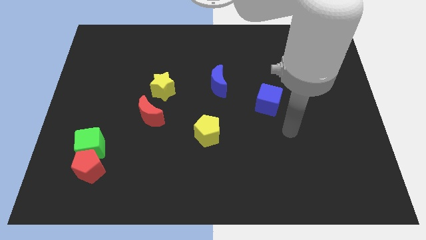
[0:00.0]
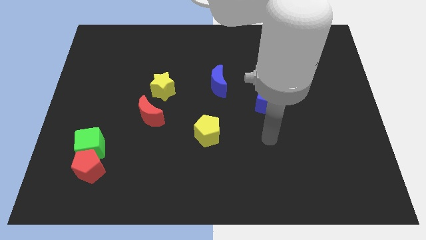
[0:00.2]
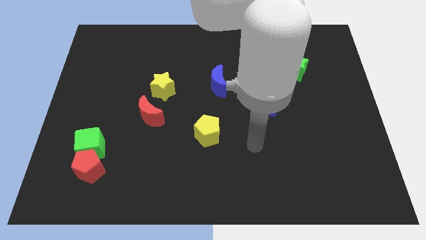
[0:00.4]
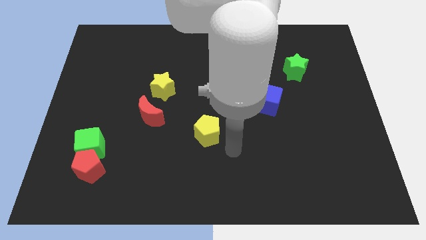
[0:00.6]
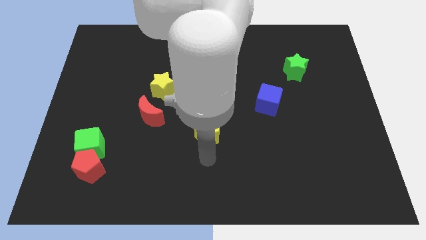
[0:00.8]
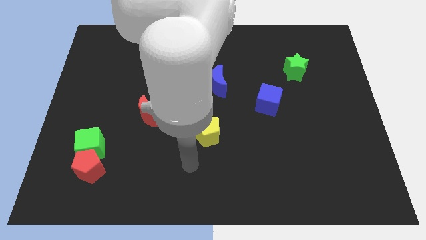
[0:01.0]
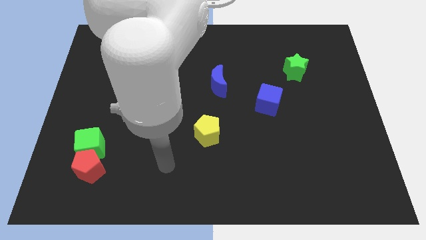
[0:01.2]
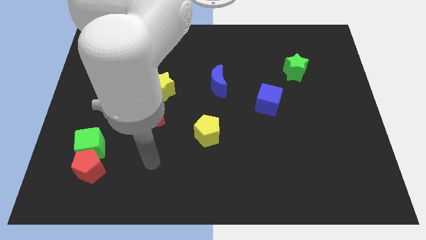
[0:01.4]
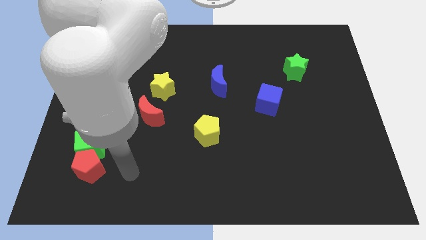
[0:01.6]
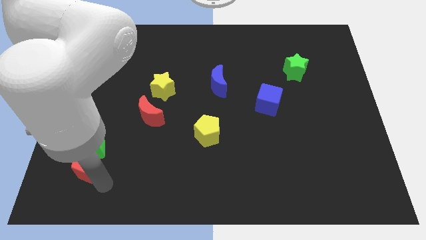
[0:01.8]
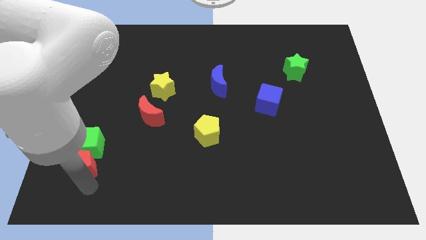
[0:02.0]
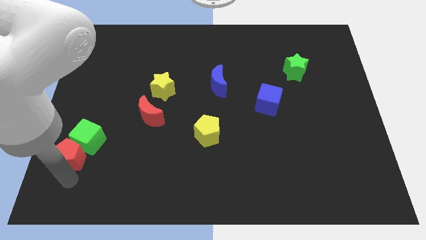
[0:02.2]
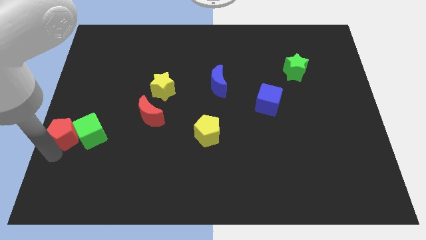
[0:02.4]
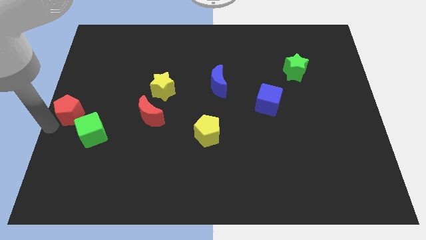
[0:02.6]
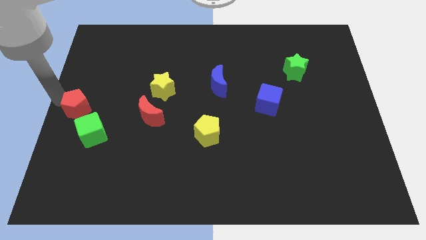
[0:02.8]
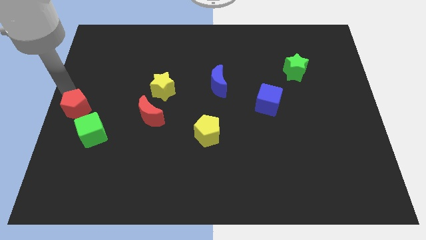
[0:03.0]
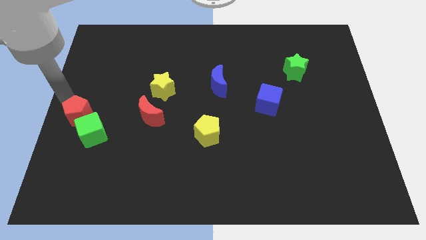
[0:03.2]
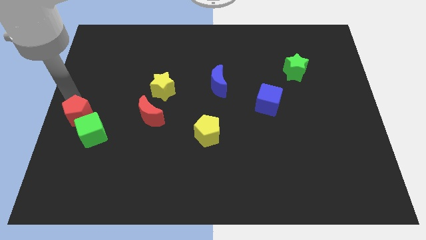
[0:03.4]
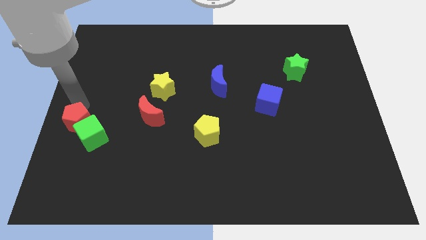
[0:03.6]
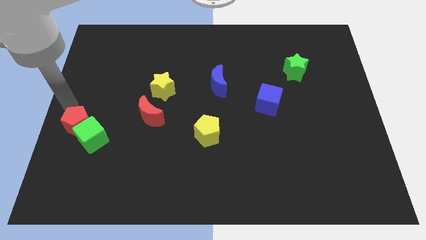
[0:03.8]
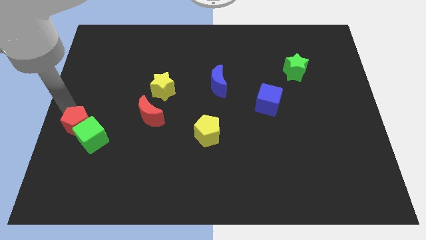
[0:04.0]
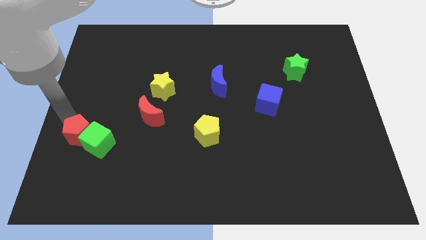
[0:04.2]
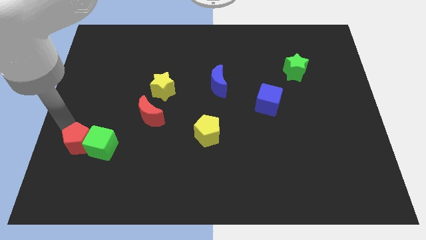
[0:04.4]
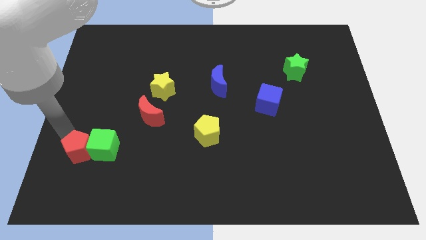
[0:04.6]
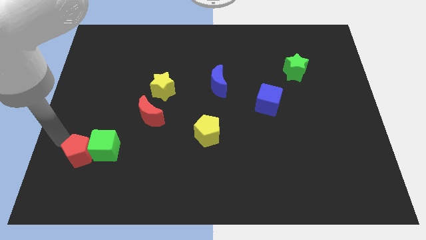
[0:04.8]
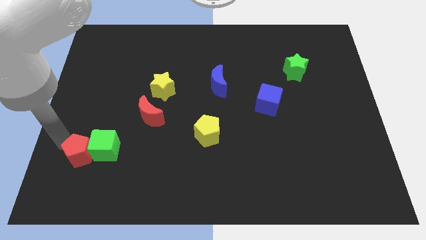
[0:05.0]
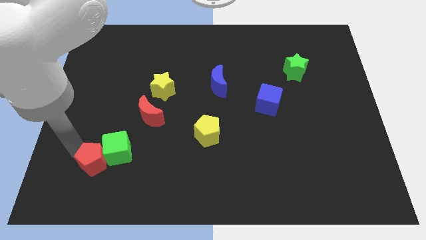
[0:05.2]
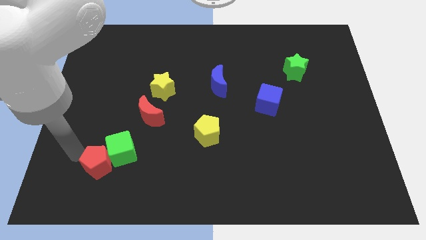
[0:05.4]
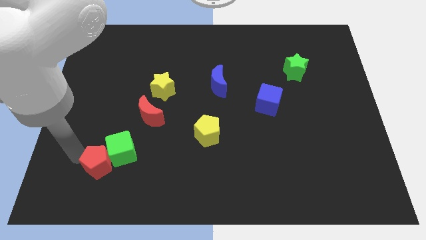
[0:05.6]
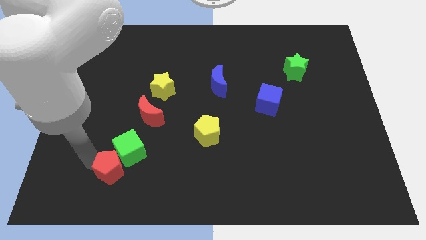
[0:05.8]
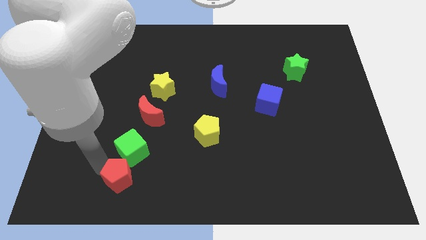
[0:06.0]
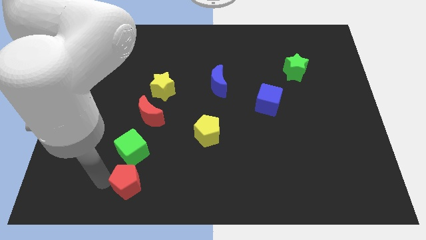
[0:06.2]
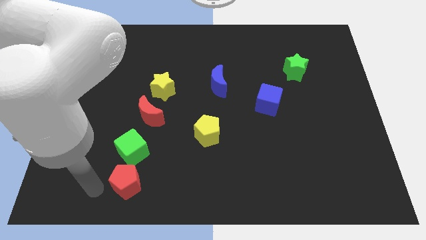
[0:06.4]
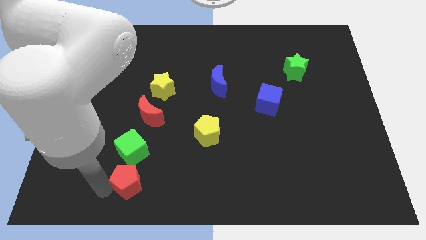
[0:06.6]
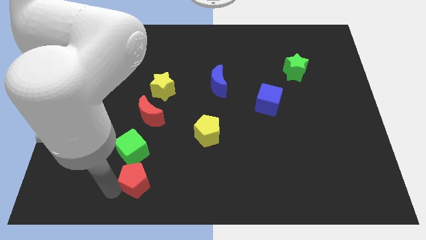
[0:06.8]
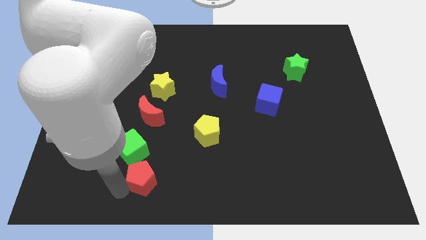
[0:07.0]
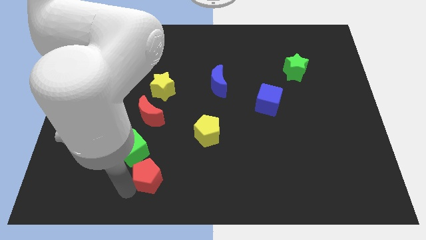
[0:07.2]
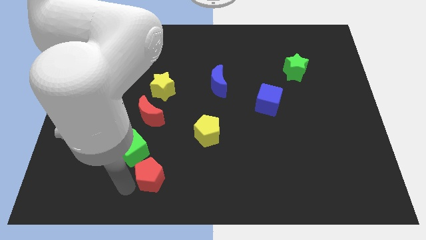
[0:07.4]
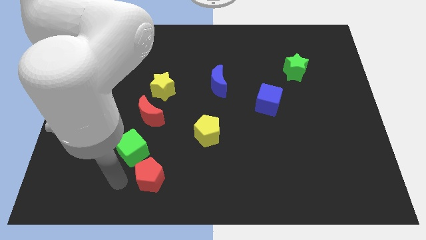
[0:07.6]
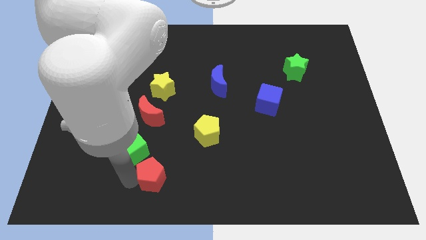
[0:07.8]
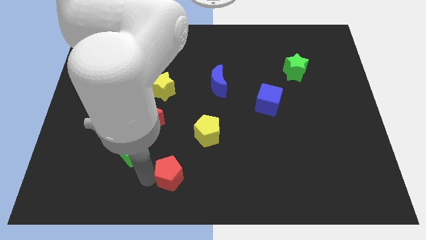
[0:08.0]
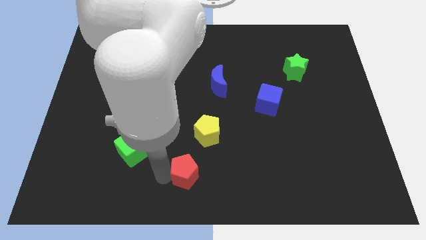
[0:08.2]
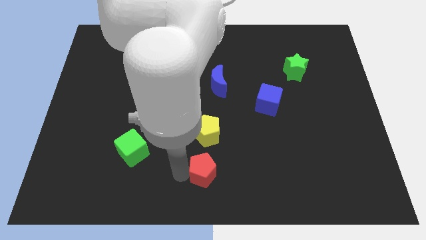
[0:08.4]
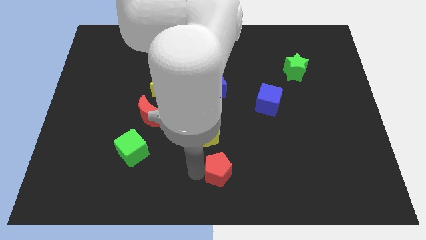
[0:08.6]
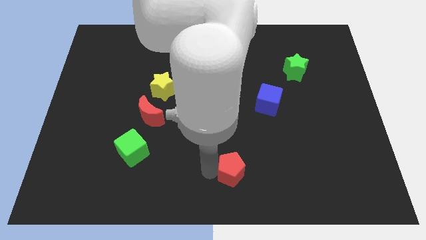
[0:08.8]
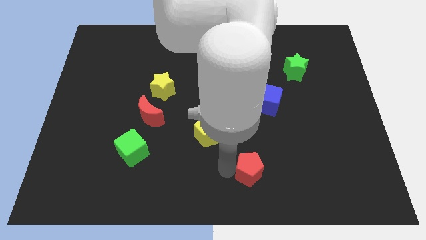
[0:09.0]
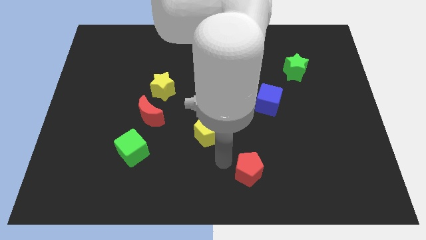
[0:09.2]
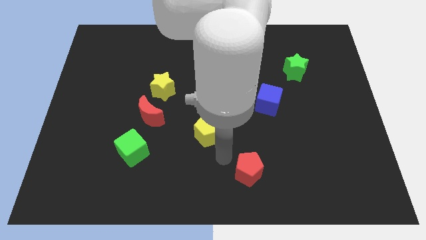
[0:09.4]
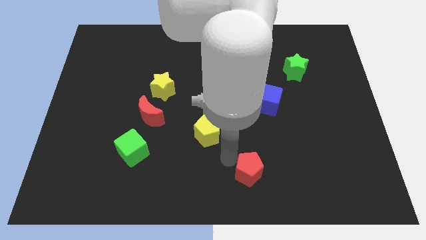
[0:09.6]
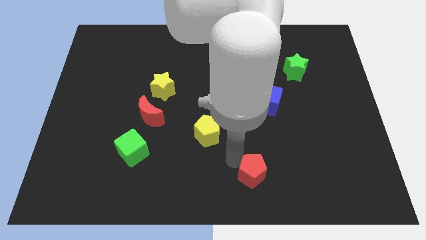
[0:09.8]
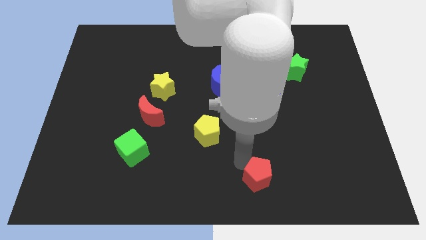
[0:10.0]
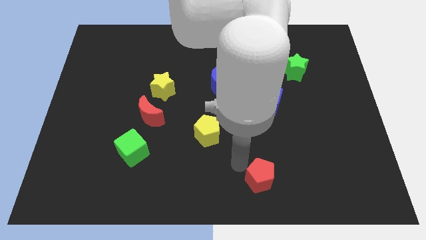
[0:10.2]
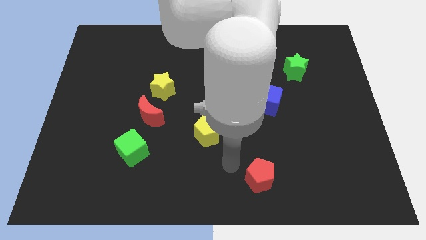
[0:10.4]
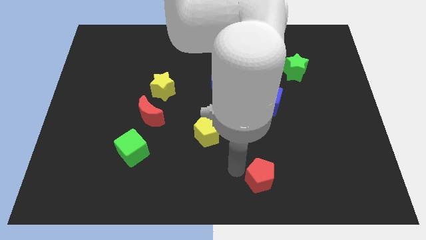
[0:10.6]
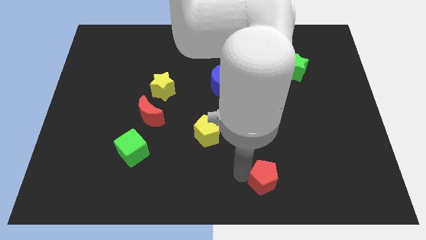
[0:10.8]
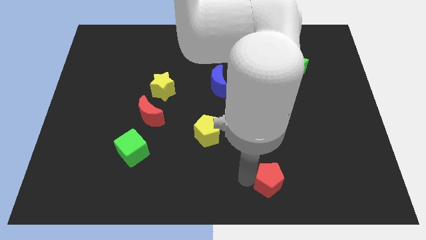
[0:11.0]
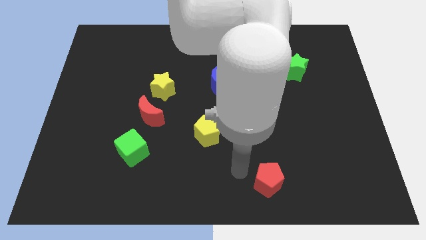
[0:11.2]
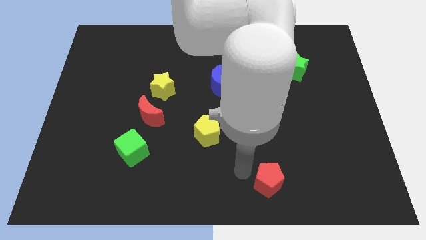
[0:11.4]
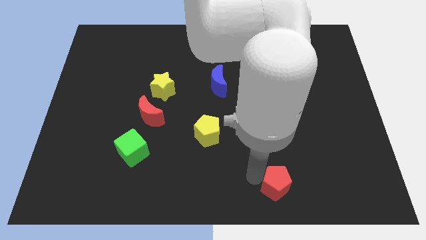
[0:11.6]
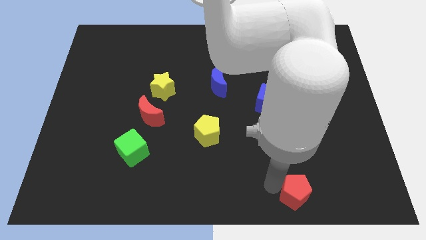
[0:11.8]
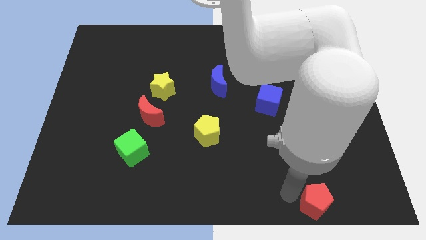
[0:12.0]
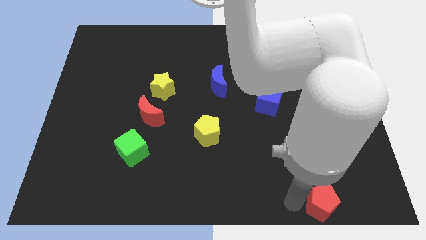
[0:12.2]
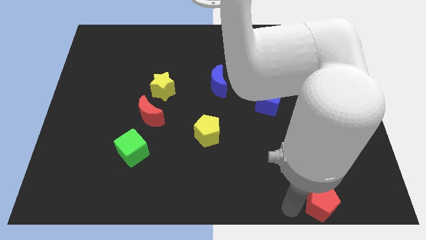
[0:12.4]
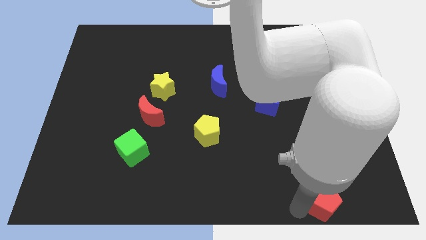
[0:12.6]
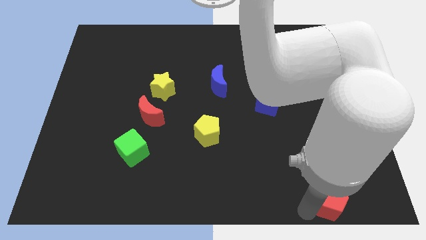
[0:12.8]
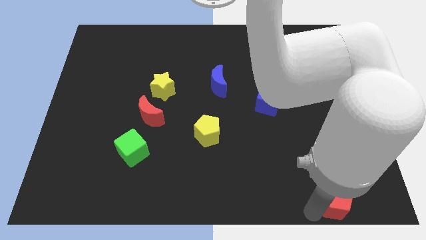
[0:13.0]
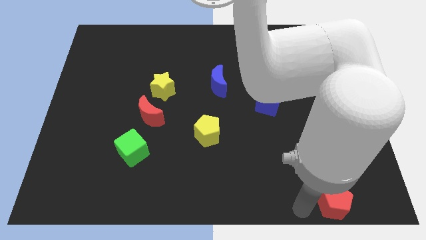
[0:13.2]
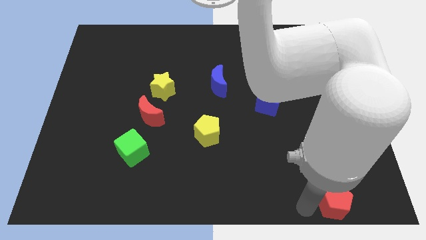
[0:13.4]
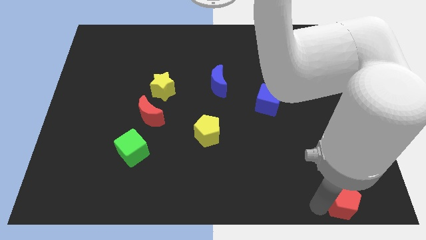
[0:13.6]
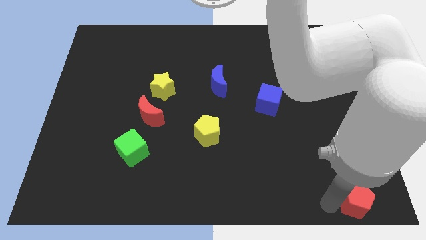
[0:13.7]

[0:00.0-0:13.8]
move the red pentagon to the bottom right corner
